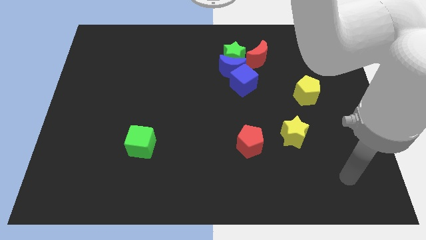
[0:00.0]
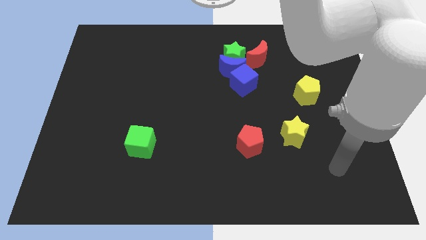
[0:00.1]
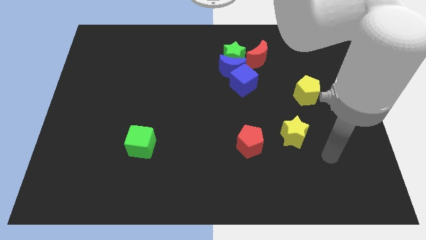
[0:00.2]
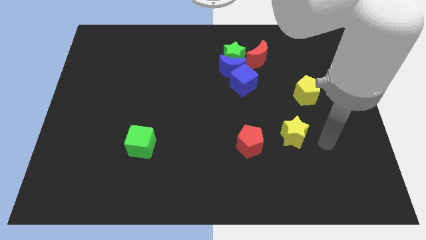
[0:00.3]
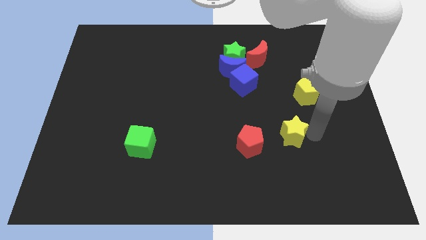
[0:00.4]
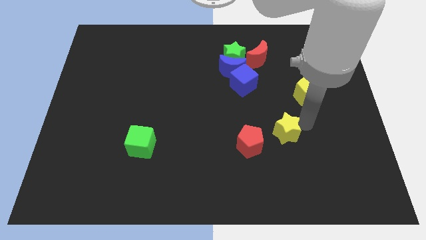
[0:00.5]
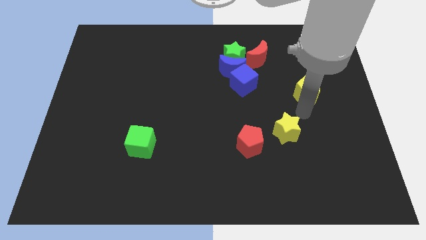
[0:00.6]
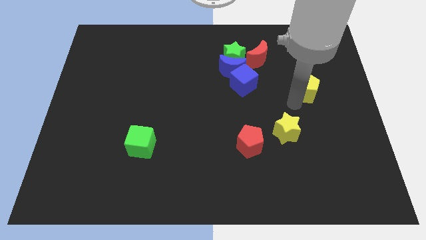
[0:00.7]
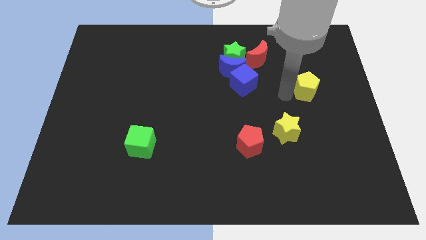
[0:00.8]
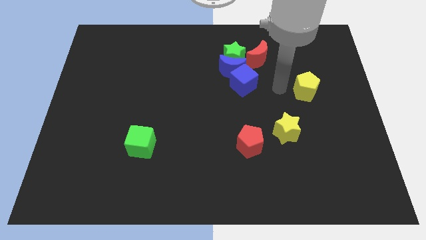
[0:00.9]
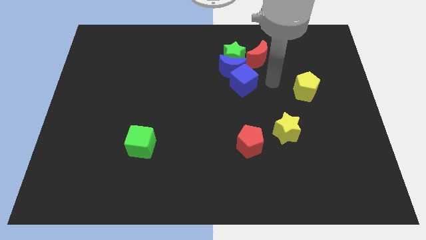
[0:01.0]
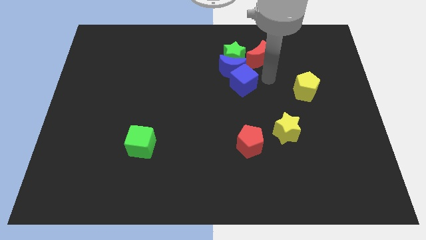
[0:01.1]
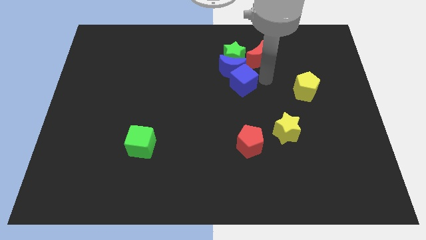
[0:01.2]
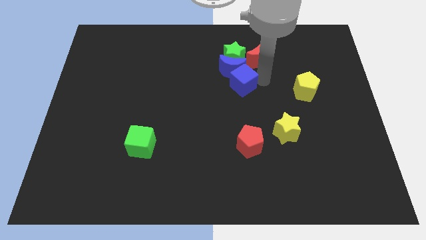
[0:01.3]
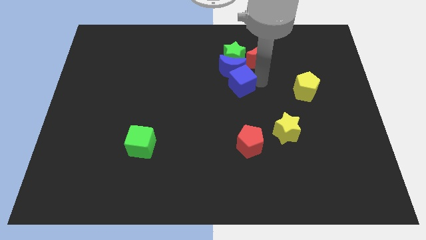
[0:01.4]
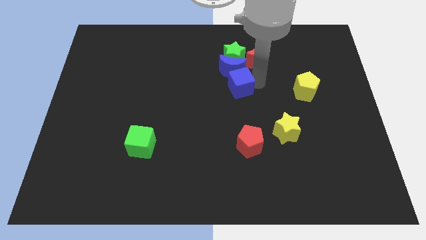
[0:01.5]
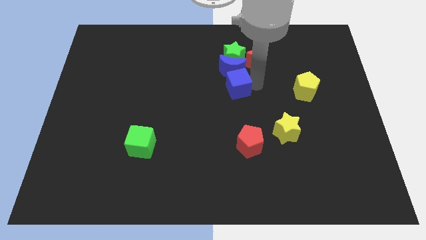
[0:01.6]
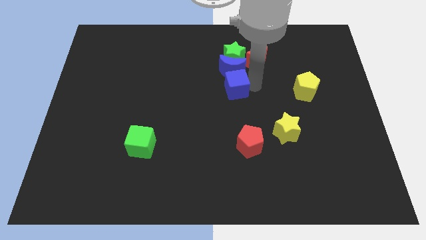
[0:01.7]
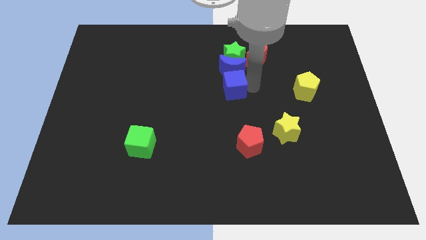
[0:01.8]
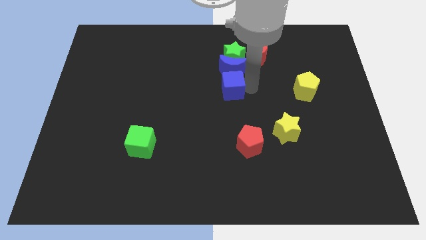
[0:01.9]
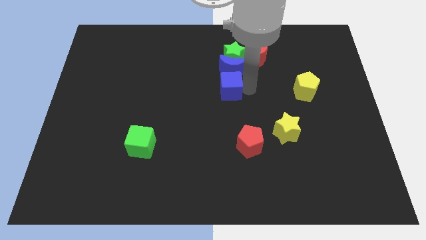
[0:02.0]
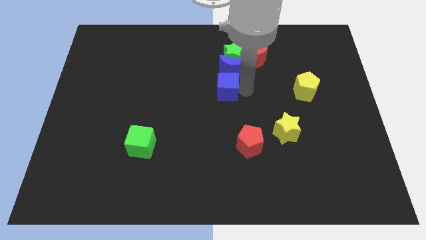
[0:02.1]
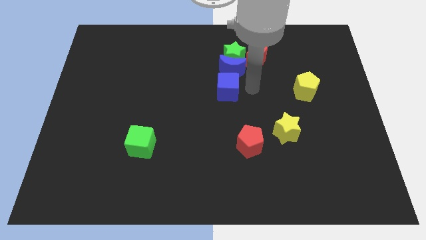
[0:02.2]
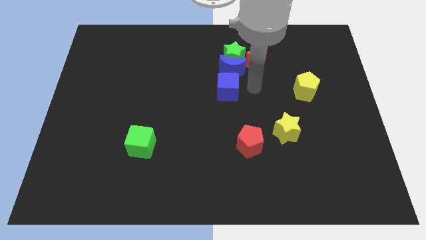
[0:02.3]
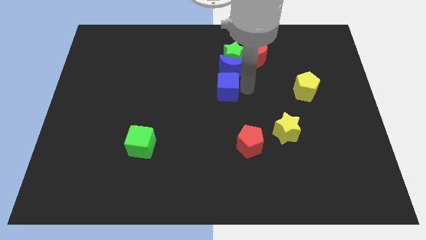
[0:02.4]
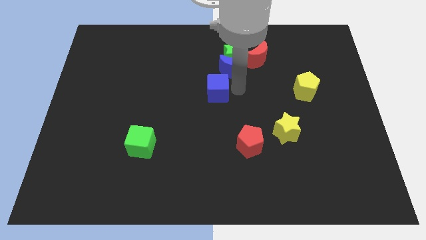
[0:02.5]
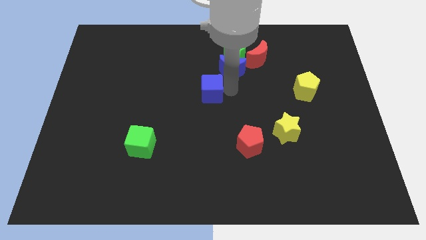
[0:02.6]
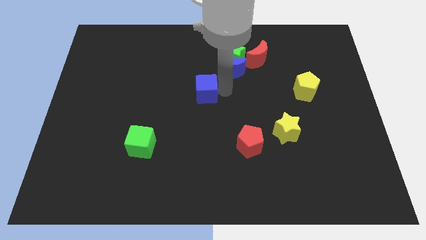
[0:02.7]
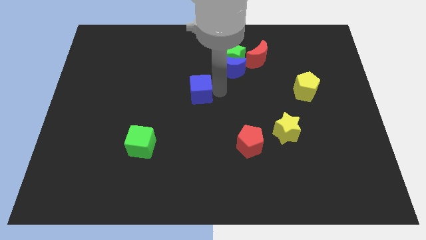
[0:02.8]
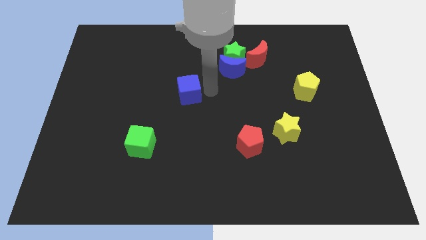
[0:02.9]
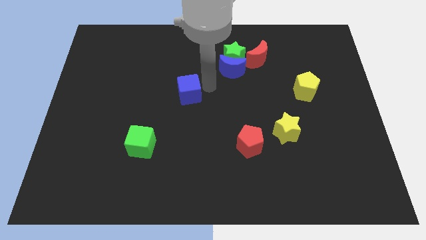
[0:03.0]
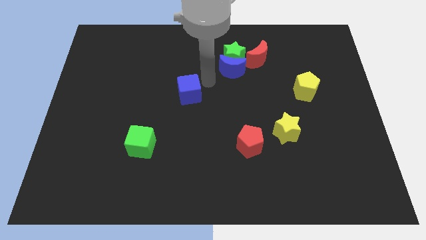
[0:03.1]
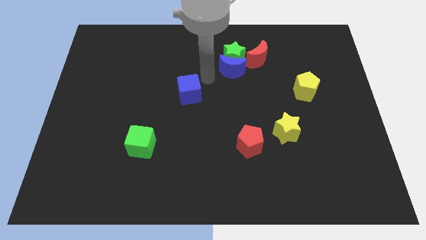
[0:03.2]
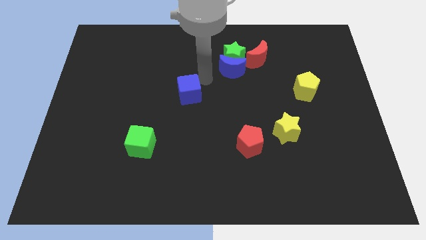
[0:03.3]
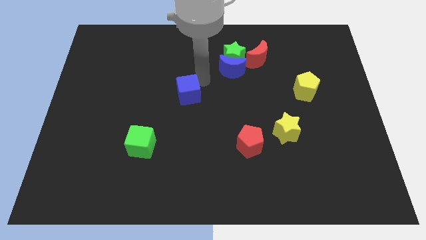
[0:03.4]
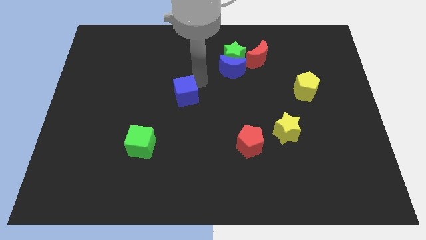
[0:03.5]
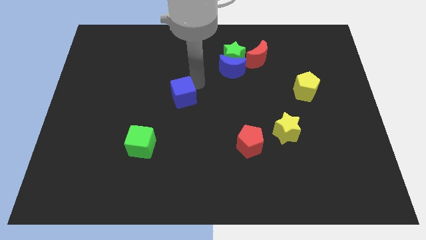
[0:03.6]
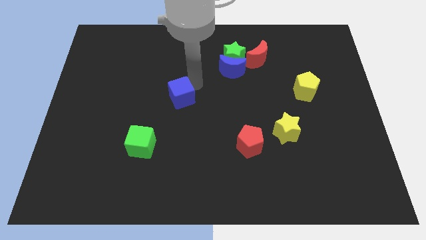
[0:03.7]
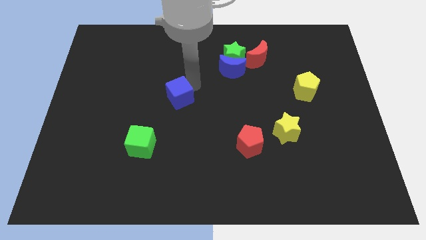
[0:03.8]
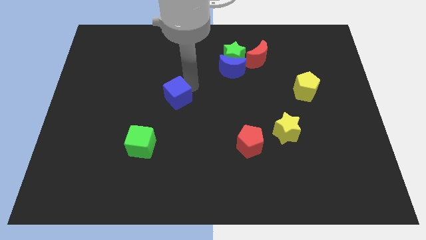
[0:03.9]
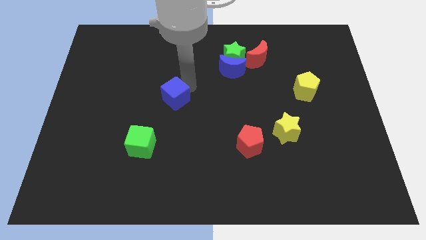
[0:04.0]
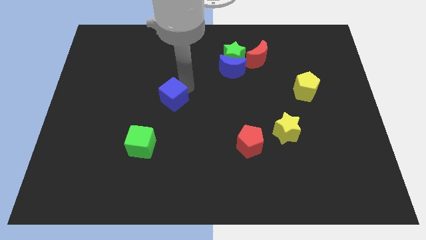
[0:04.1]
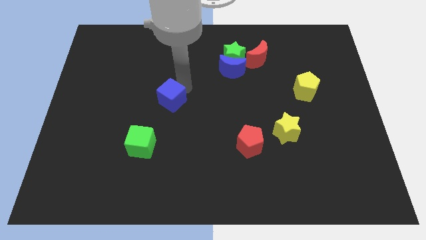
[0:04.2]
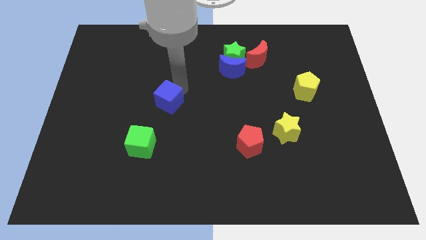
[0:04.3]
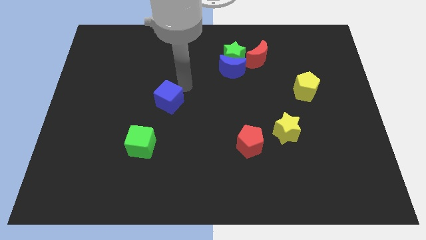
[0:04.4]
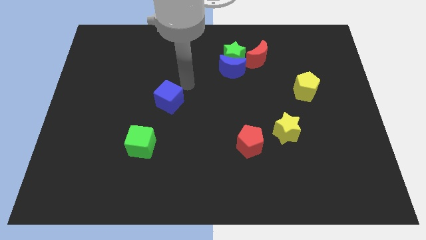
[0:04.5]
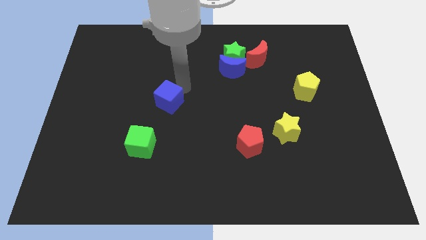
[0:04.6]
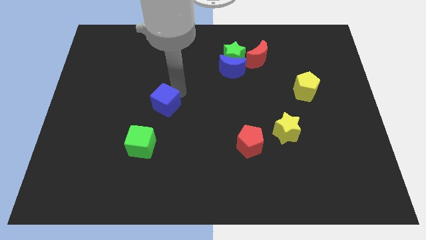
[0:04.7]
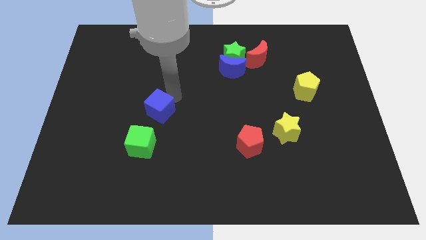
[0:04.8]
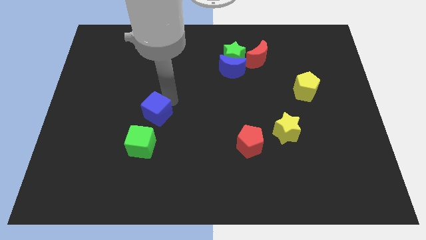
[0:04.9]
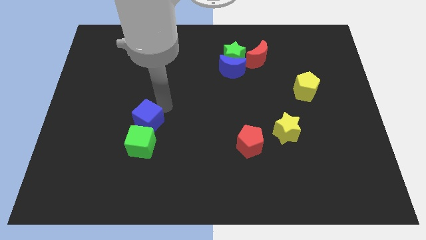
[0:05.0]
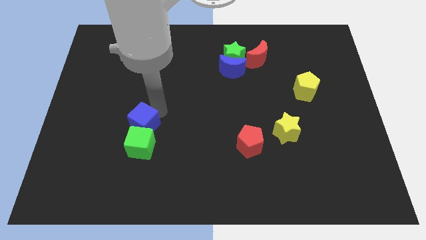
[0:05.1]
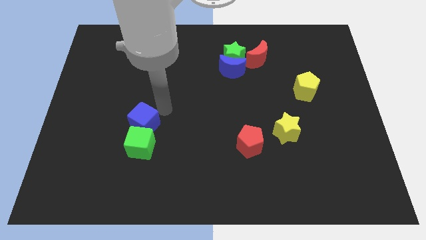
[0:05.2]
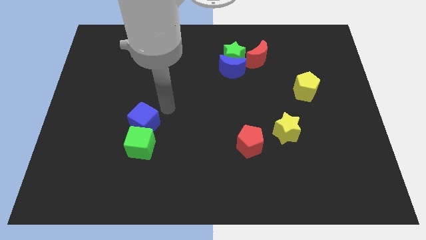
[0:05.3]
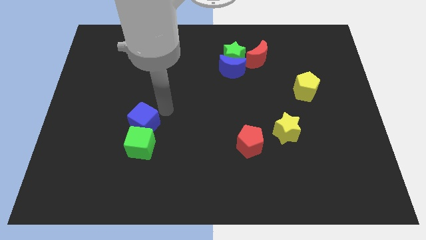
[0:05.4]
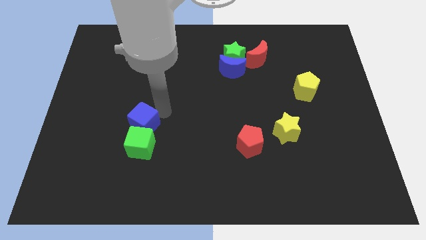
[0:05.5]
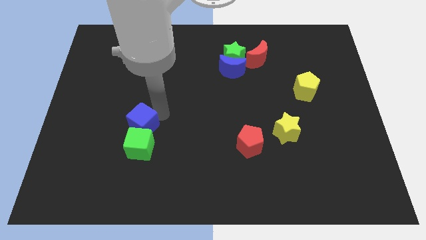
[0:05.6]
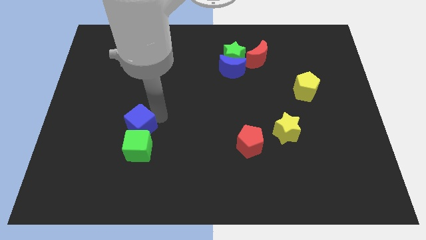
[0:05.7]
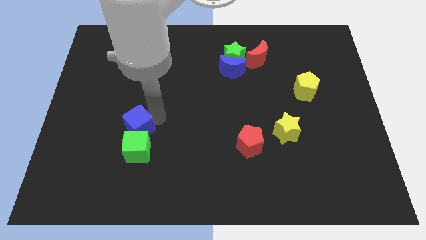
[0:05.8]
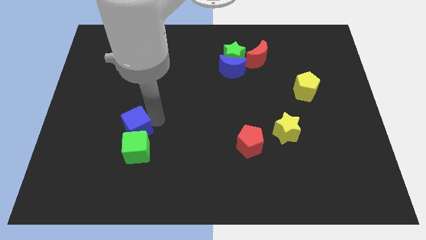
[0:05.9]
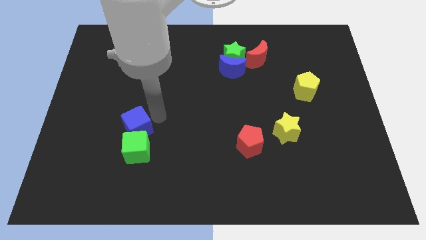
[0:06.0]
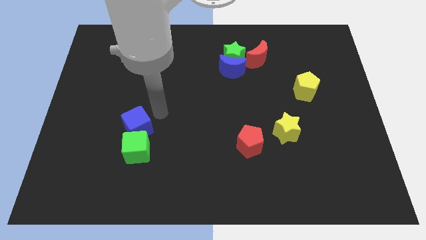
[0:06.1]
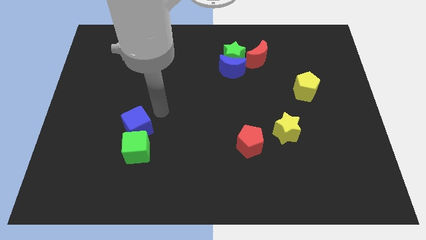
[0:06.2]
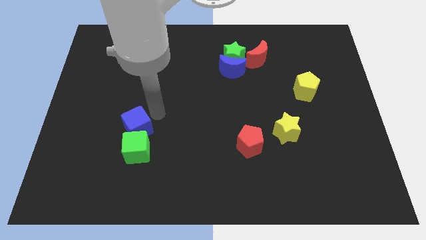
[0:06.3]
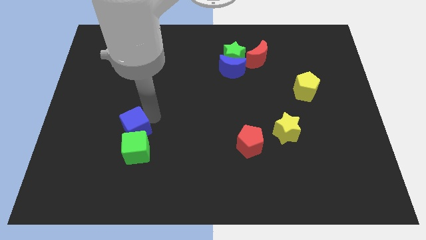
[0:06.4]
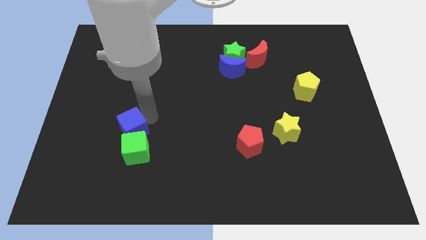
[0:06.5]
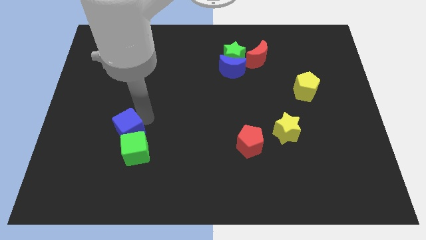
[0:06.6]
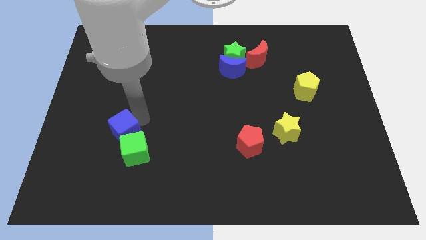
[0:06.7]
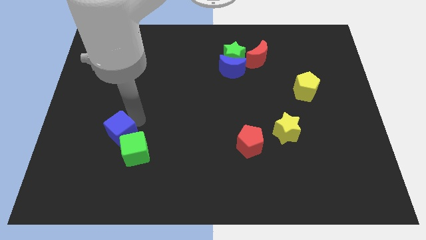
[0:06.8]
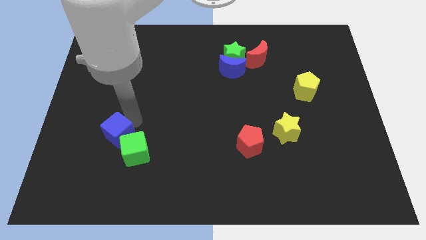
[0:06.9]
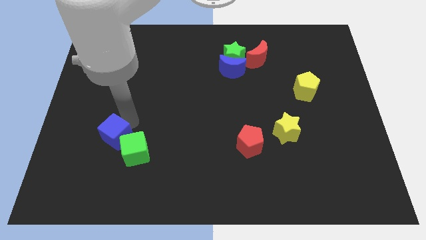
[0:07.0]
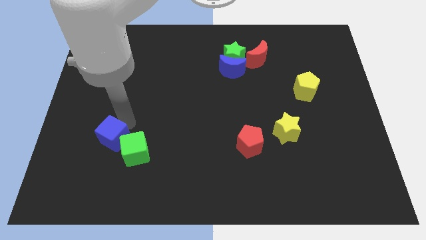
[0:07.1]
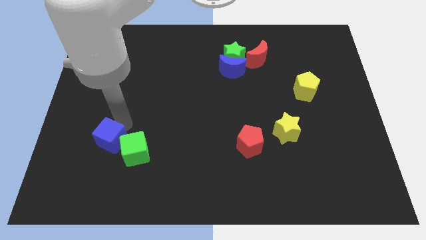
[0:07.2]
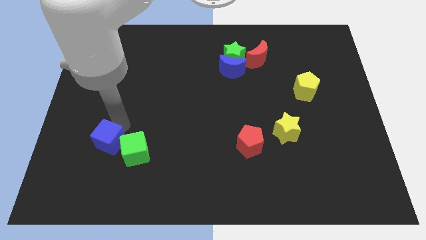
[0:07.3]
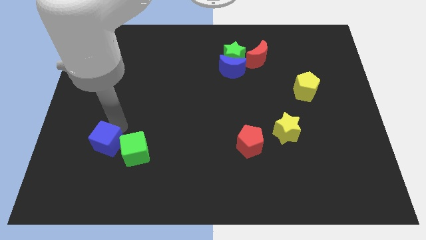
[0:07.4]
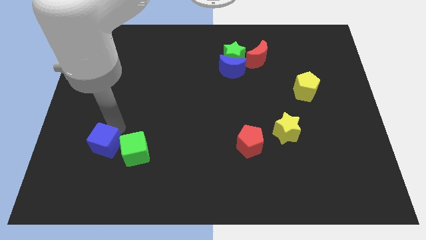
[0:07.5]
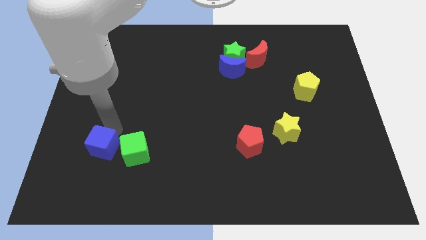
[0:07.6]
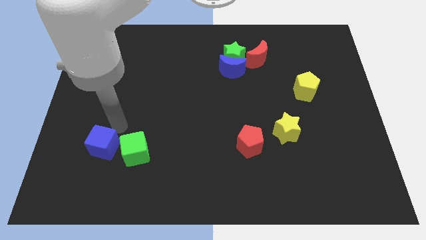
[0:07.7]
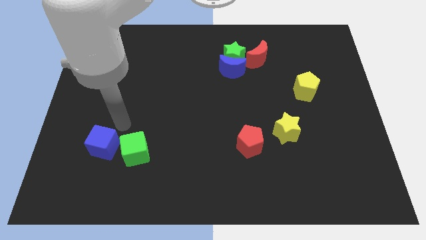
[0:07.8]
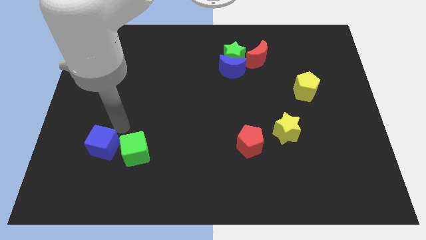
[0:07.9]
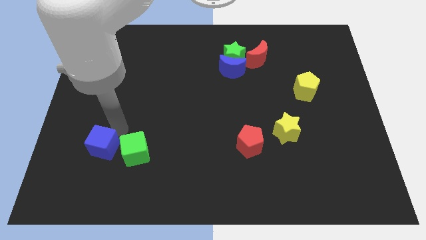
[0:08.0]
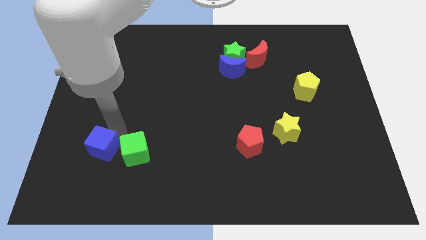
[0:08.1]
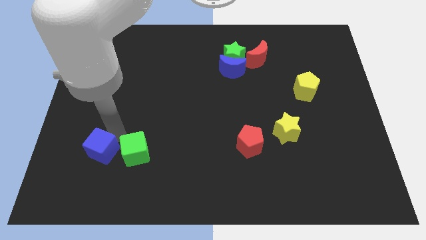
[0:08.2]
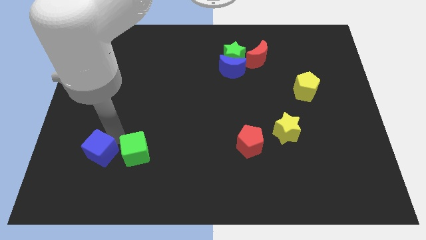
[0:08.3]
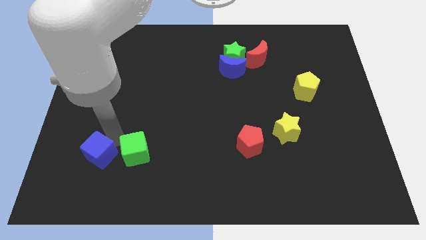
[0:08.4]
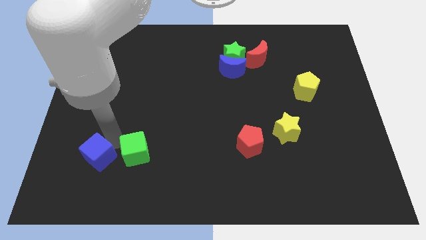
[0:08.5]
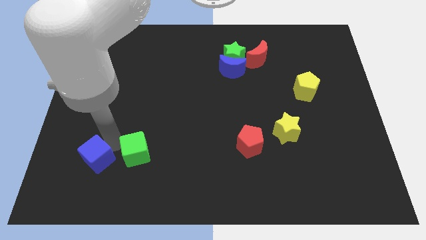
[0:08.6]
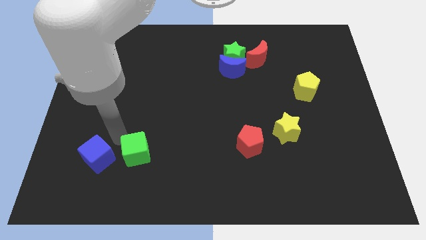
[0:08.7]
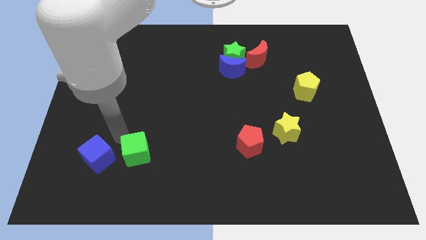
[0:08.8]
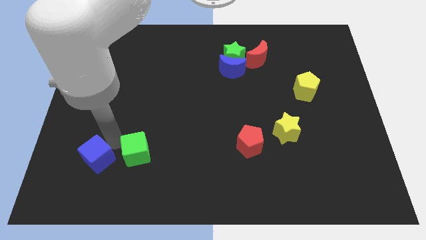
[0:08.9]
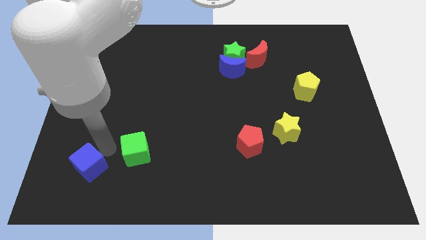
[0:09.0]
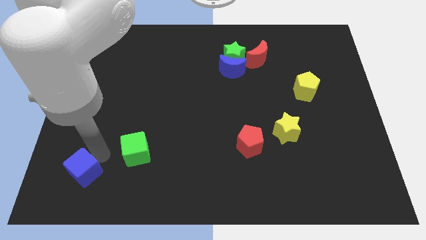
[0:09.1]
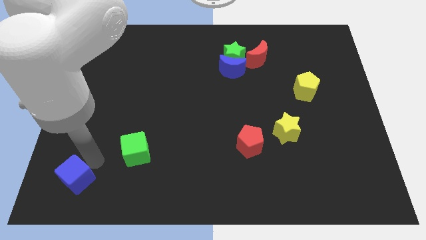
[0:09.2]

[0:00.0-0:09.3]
slide the blue cube to the bottom left
